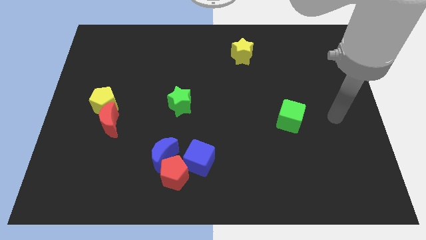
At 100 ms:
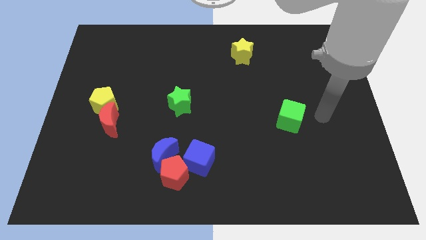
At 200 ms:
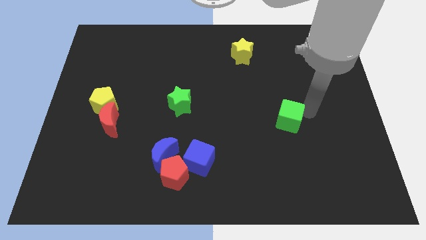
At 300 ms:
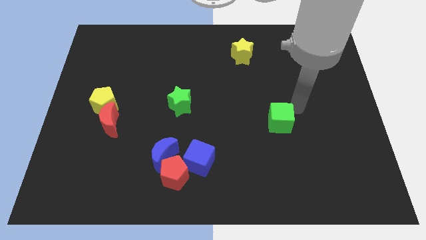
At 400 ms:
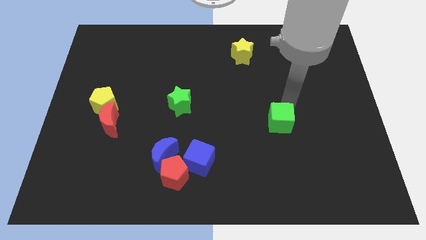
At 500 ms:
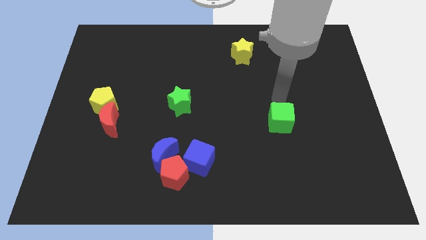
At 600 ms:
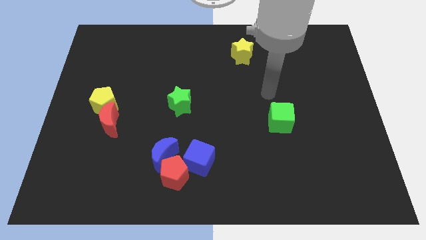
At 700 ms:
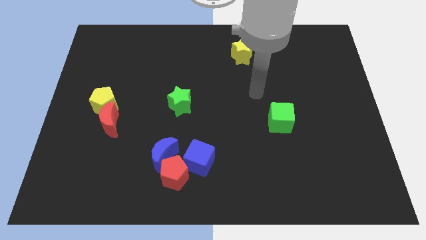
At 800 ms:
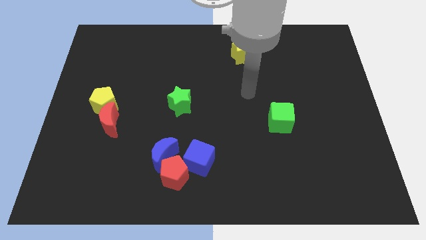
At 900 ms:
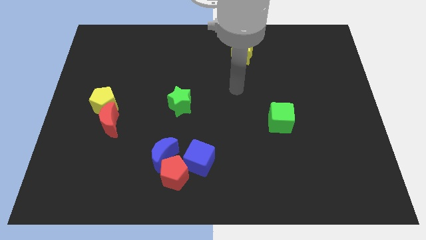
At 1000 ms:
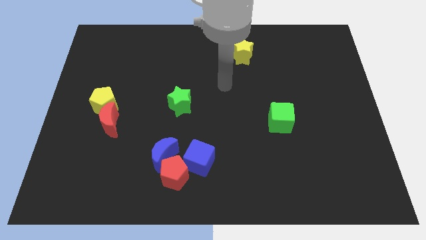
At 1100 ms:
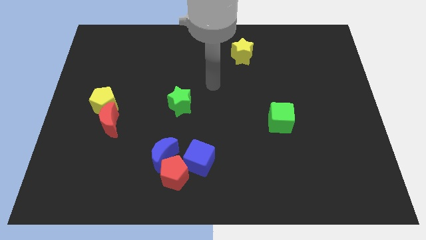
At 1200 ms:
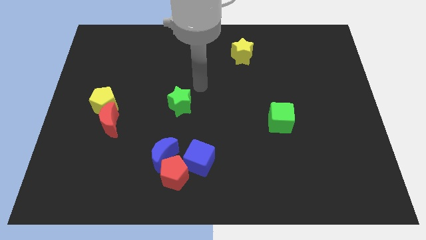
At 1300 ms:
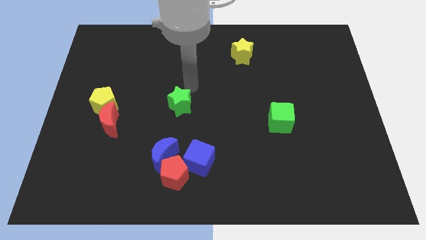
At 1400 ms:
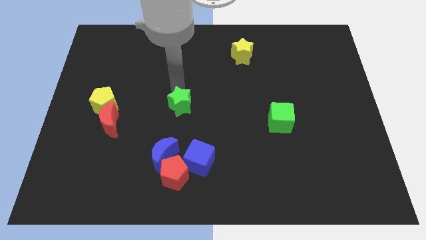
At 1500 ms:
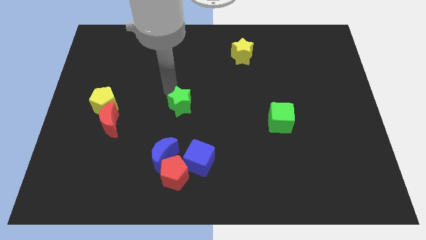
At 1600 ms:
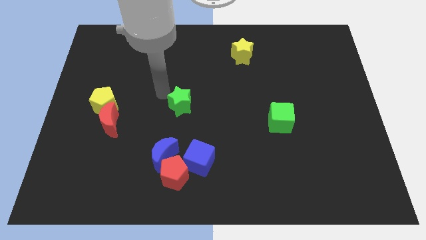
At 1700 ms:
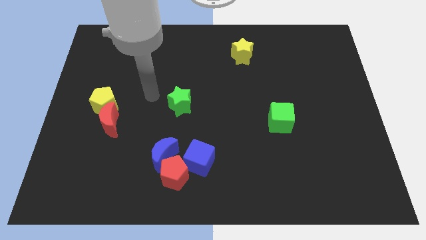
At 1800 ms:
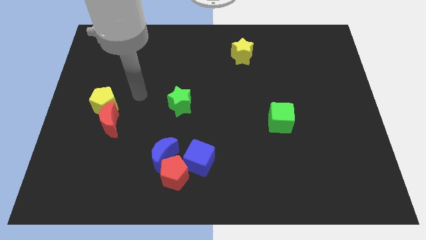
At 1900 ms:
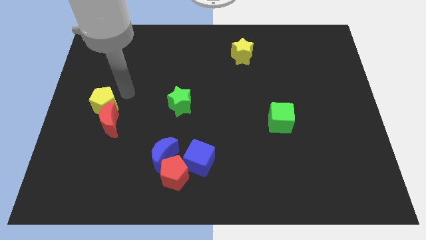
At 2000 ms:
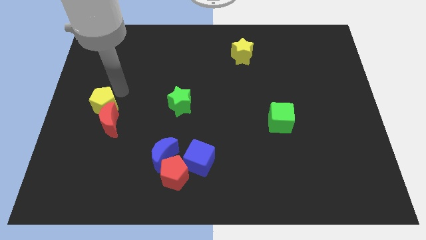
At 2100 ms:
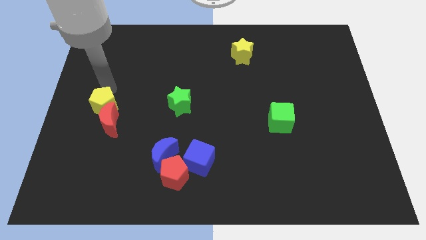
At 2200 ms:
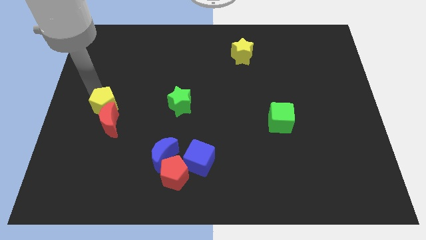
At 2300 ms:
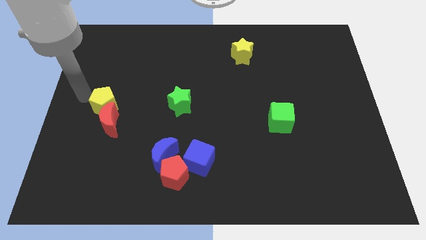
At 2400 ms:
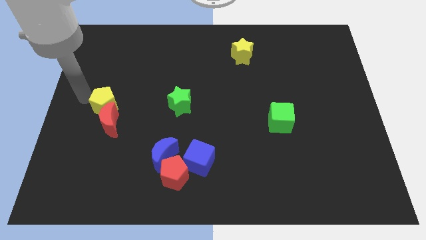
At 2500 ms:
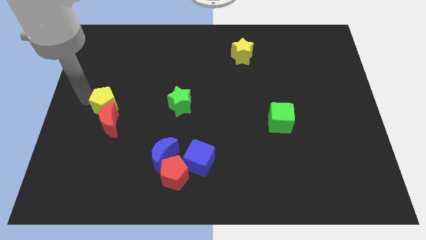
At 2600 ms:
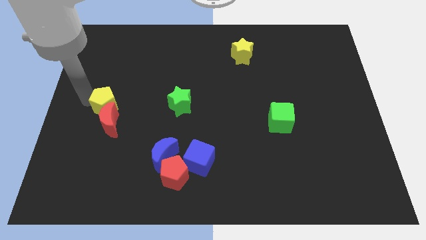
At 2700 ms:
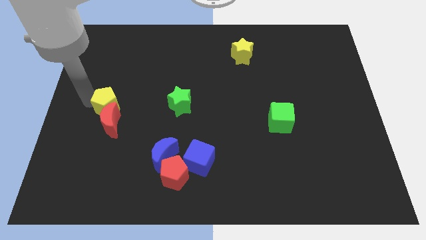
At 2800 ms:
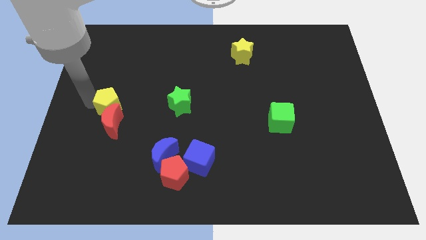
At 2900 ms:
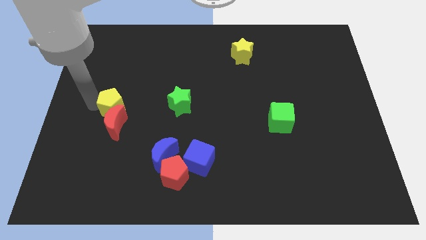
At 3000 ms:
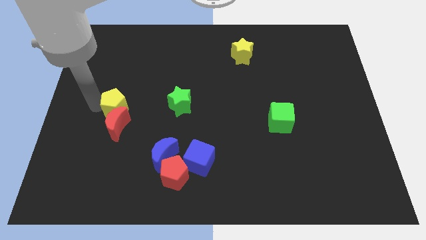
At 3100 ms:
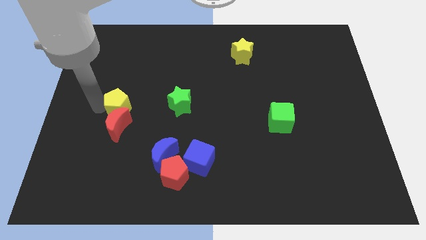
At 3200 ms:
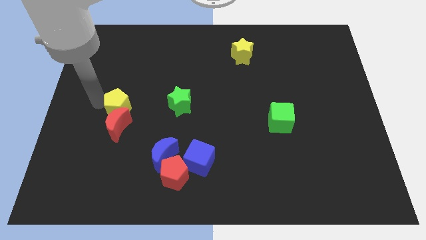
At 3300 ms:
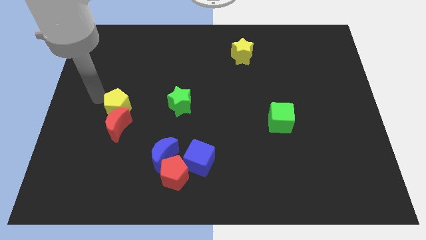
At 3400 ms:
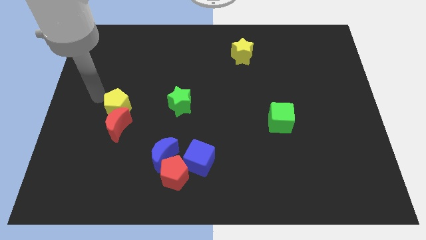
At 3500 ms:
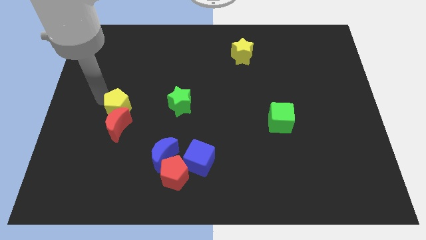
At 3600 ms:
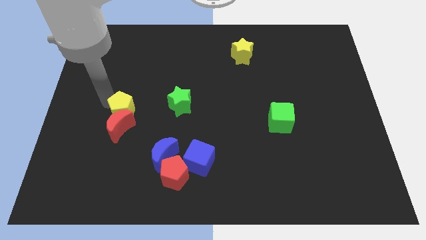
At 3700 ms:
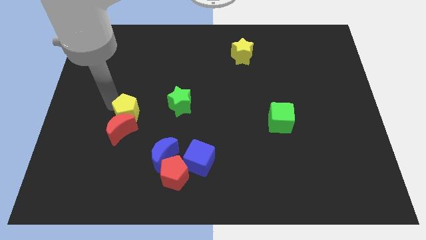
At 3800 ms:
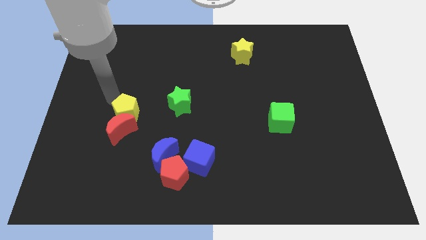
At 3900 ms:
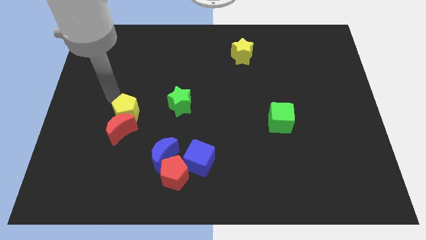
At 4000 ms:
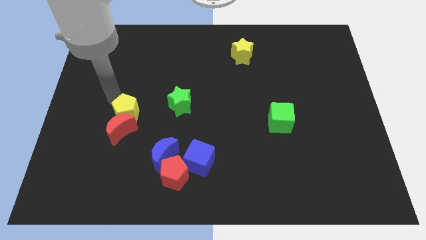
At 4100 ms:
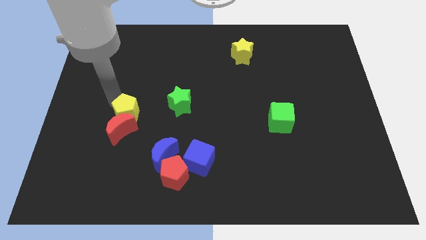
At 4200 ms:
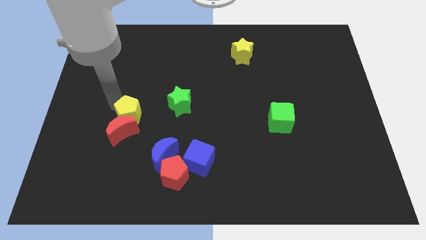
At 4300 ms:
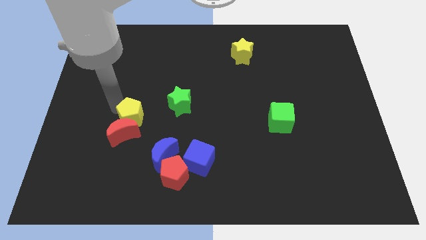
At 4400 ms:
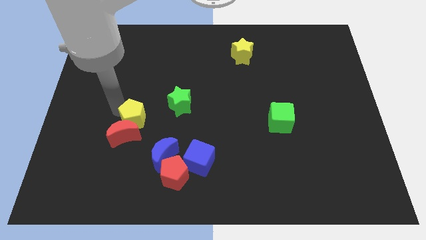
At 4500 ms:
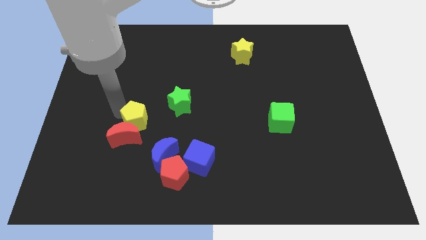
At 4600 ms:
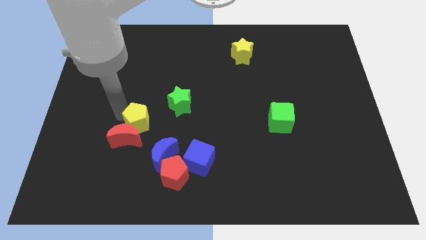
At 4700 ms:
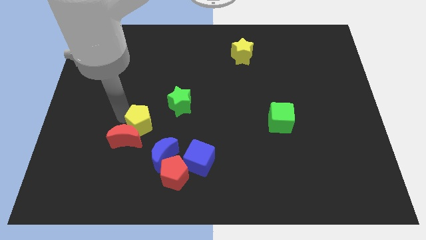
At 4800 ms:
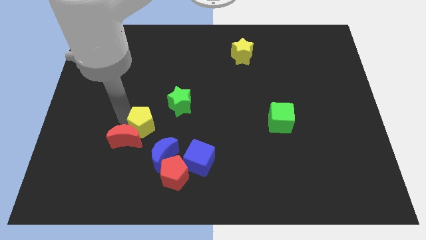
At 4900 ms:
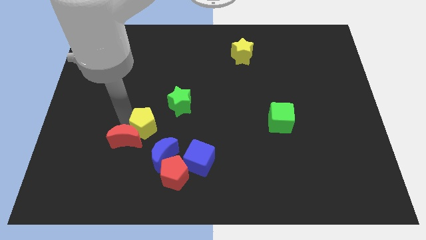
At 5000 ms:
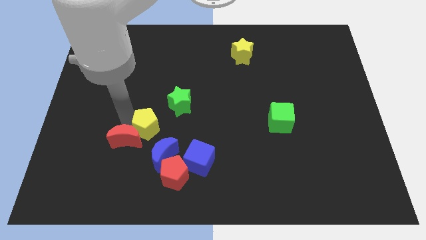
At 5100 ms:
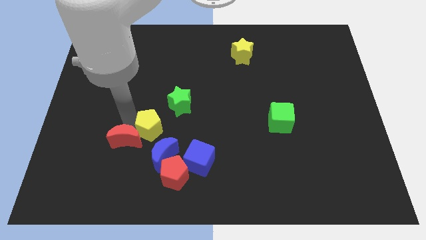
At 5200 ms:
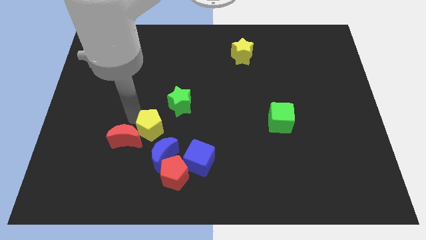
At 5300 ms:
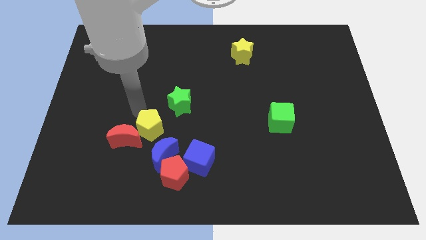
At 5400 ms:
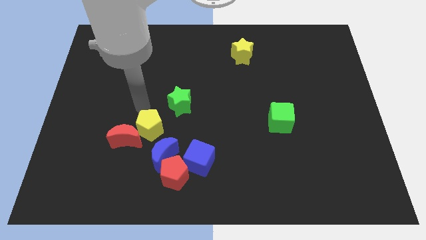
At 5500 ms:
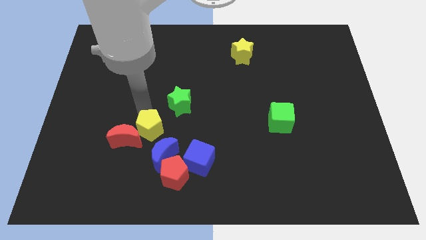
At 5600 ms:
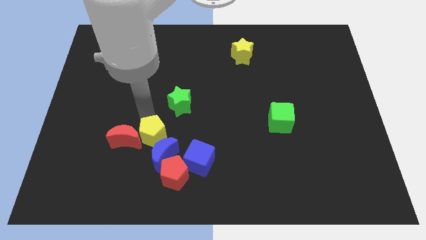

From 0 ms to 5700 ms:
slide the yellow pentagon close to the blue moon

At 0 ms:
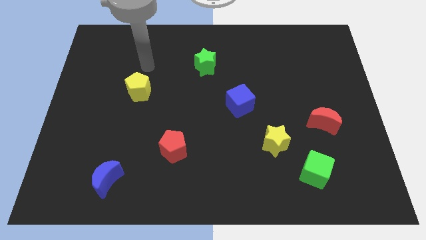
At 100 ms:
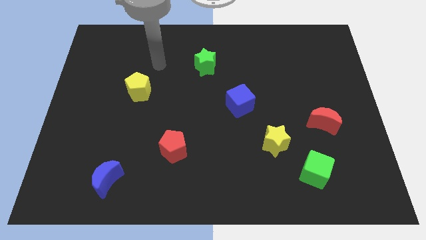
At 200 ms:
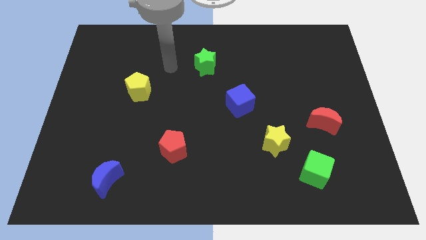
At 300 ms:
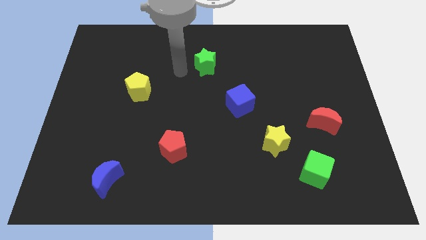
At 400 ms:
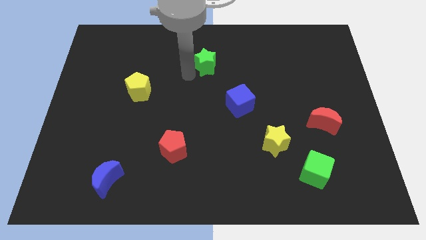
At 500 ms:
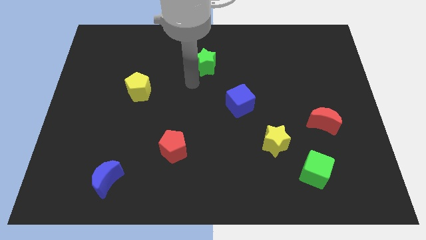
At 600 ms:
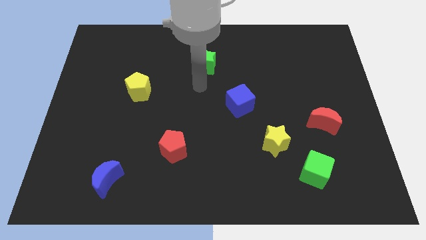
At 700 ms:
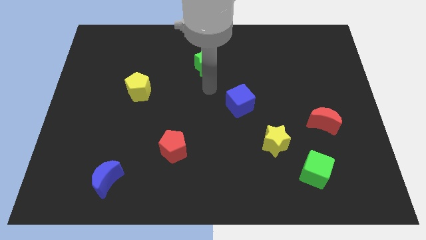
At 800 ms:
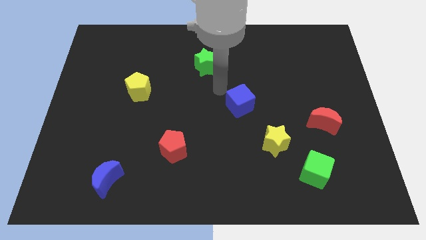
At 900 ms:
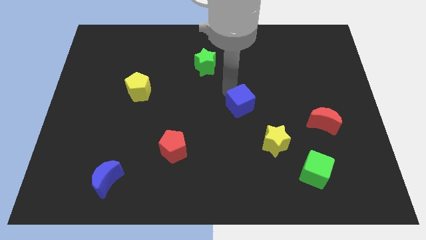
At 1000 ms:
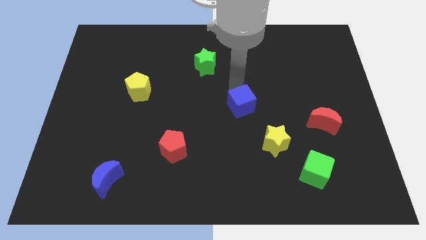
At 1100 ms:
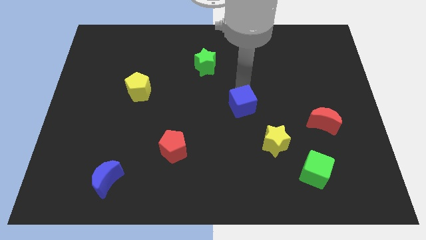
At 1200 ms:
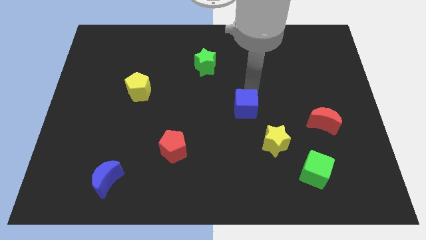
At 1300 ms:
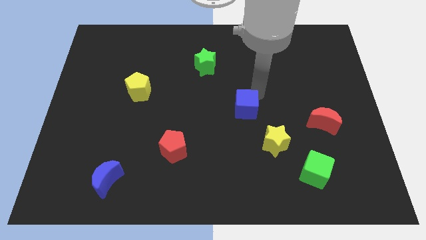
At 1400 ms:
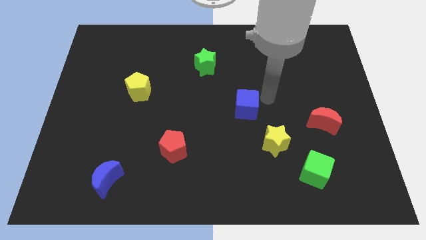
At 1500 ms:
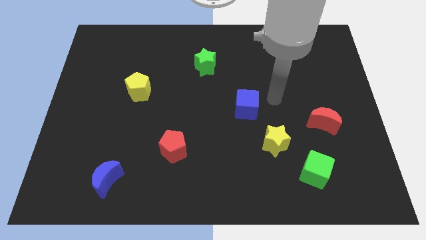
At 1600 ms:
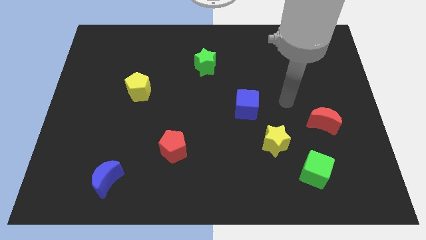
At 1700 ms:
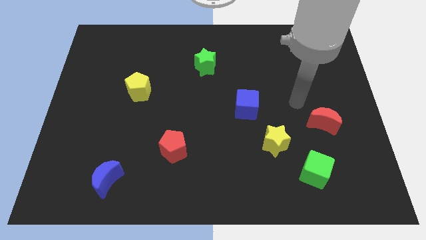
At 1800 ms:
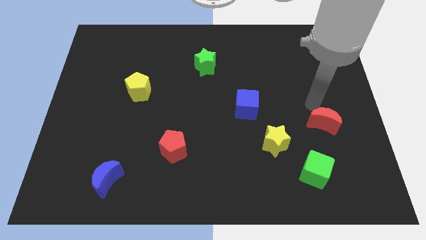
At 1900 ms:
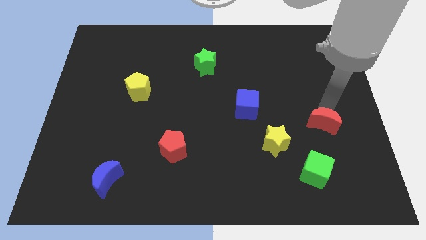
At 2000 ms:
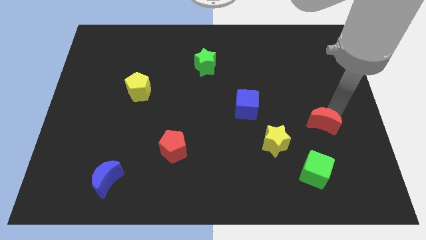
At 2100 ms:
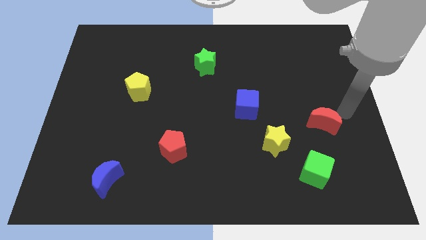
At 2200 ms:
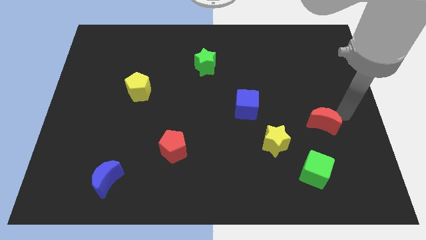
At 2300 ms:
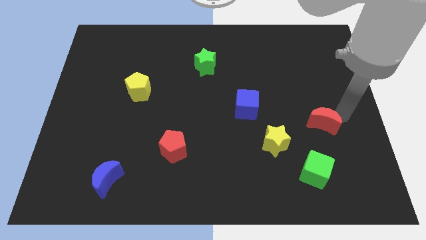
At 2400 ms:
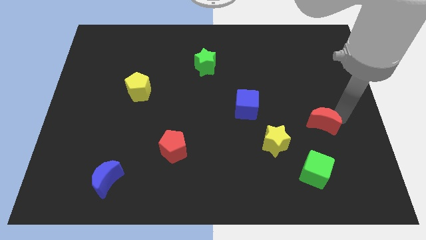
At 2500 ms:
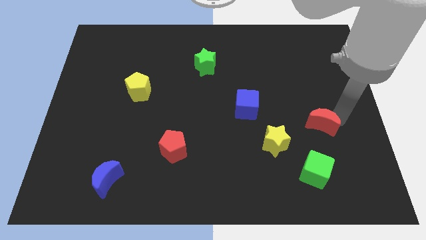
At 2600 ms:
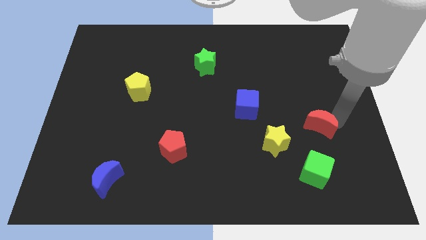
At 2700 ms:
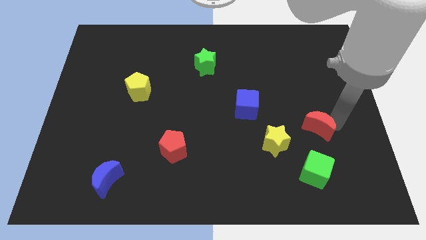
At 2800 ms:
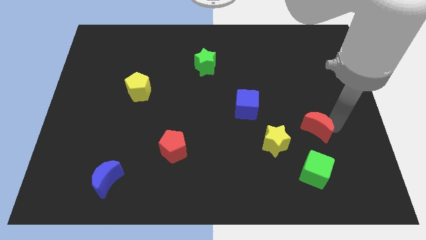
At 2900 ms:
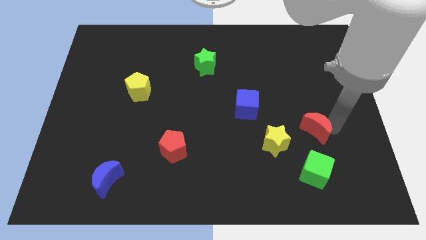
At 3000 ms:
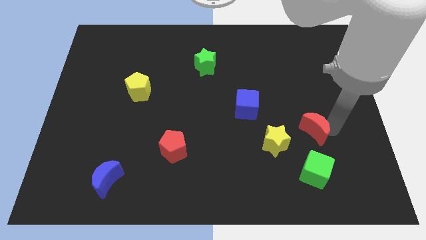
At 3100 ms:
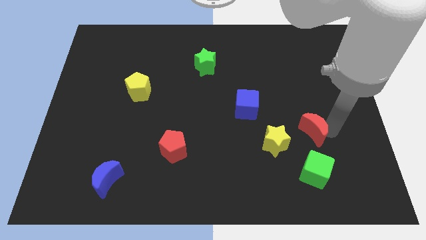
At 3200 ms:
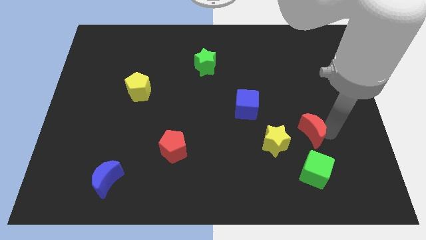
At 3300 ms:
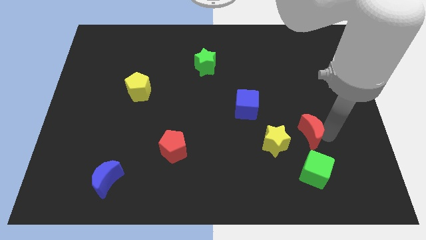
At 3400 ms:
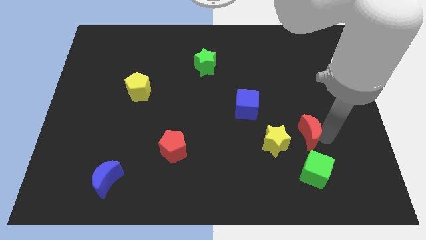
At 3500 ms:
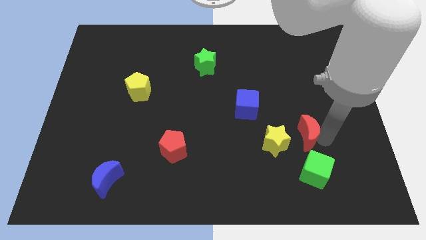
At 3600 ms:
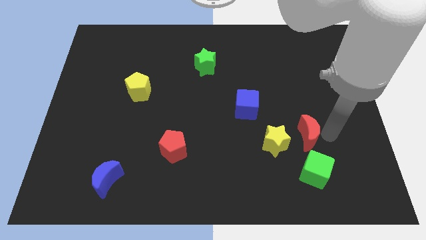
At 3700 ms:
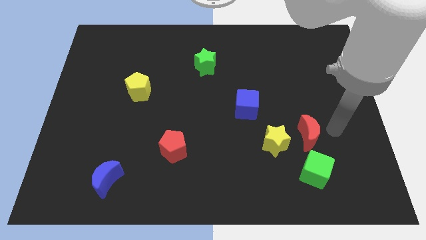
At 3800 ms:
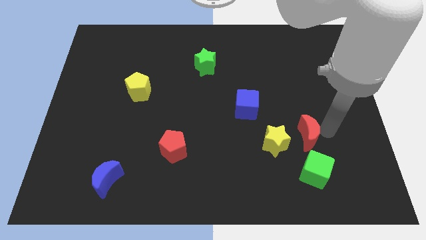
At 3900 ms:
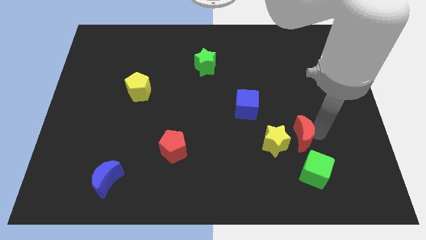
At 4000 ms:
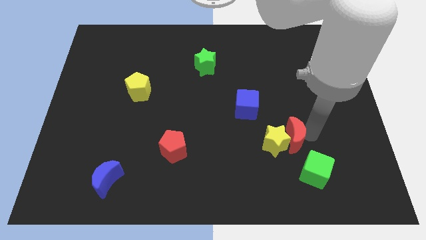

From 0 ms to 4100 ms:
move the red moon next to the yellow star
